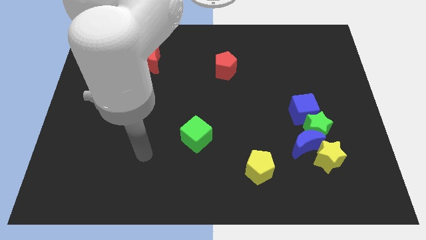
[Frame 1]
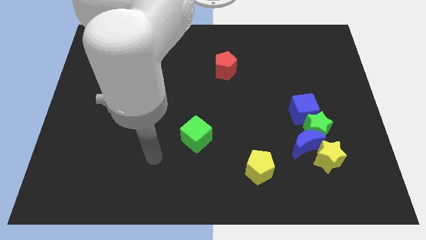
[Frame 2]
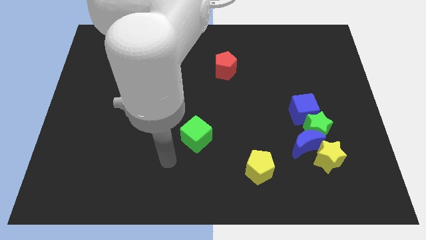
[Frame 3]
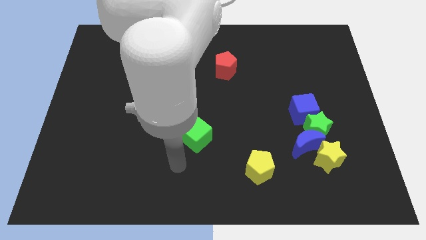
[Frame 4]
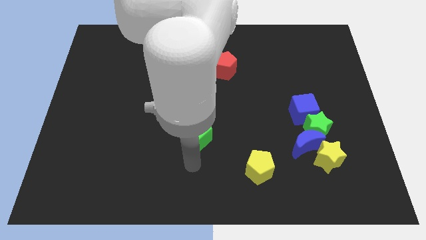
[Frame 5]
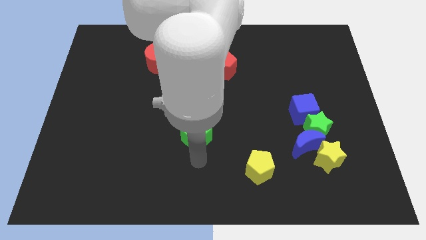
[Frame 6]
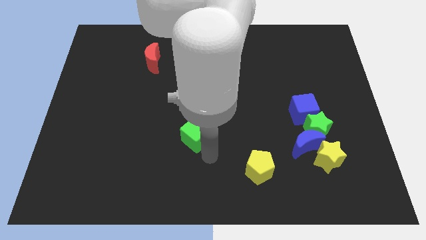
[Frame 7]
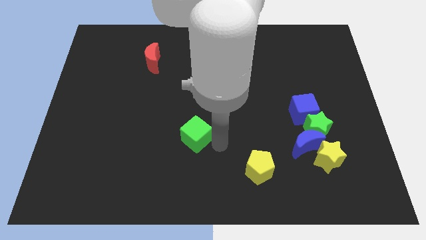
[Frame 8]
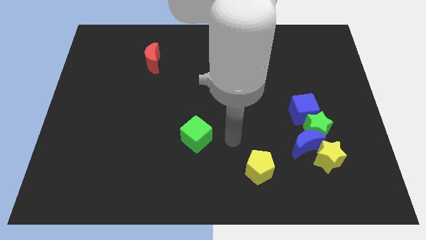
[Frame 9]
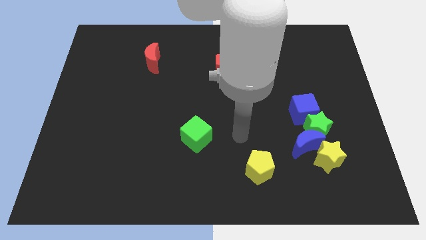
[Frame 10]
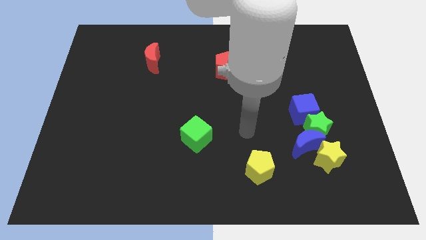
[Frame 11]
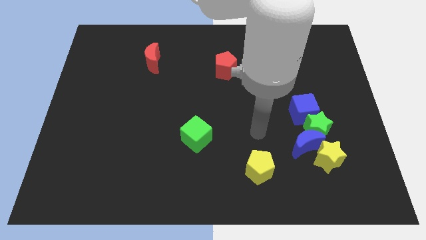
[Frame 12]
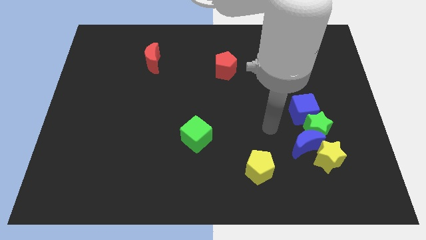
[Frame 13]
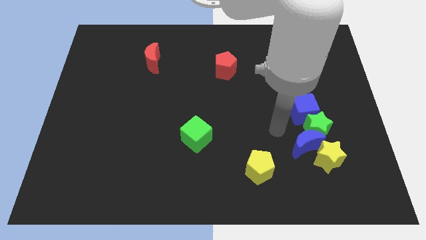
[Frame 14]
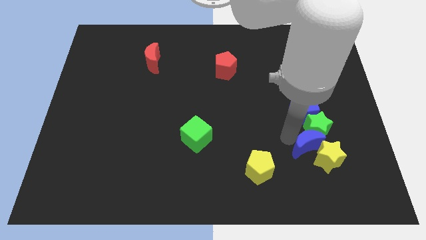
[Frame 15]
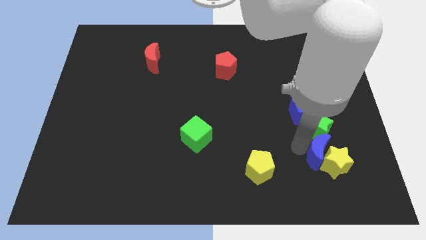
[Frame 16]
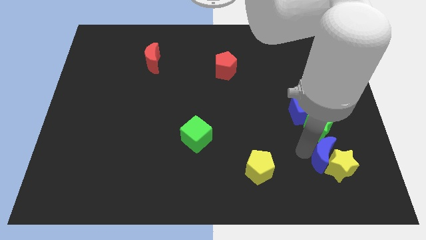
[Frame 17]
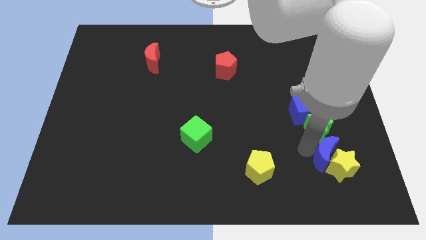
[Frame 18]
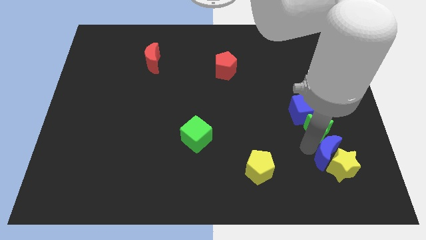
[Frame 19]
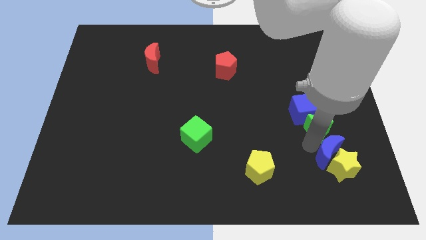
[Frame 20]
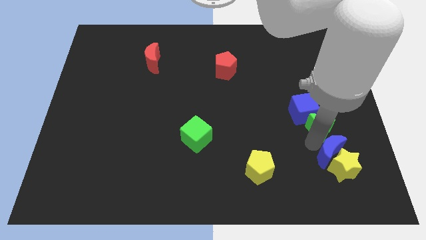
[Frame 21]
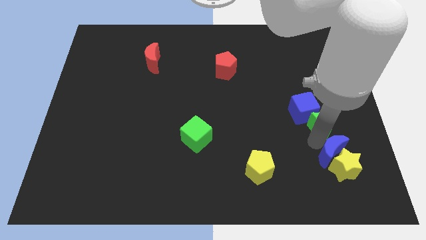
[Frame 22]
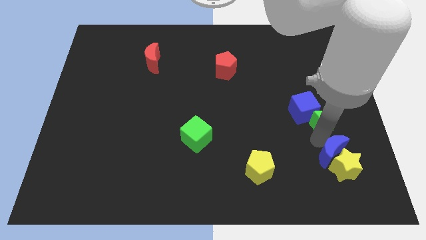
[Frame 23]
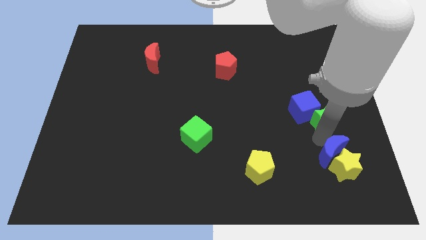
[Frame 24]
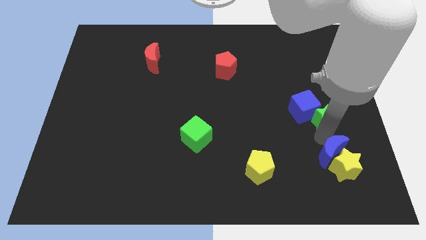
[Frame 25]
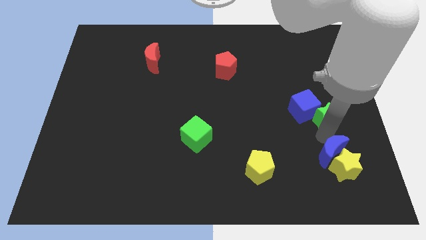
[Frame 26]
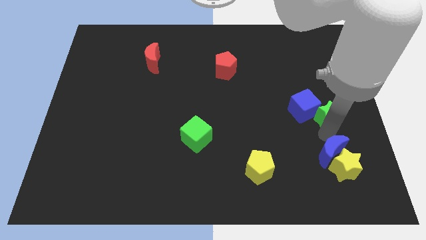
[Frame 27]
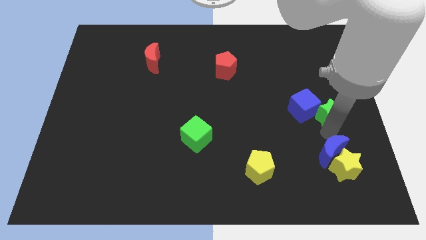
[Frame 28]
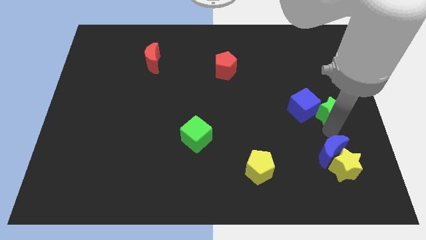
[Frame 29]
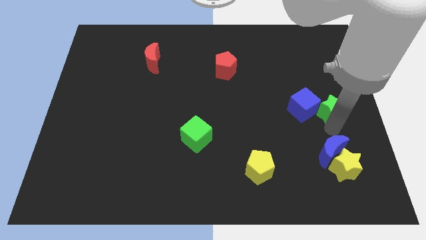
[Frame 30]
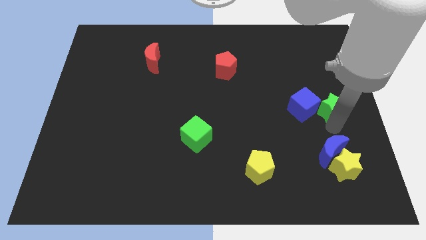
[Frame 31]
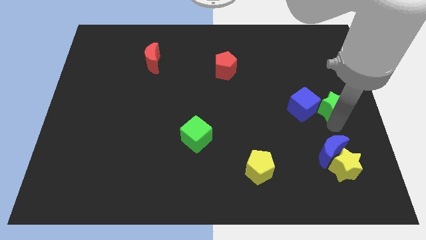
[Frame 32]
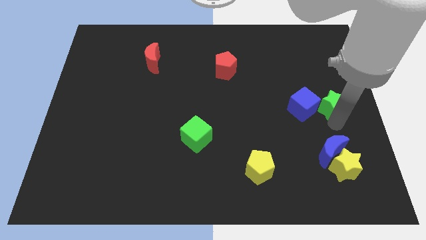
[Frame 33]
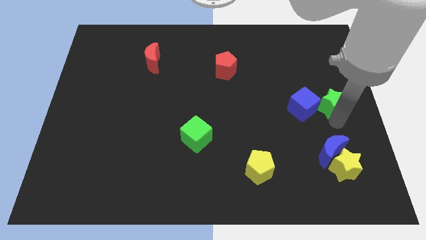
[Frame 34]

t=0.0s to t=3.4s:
separate the green star from the group

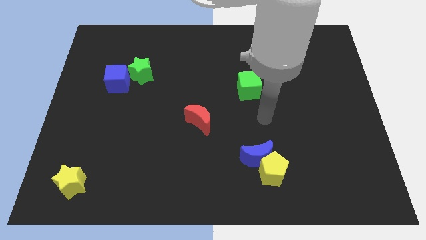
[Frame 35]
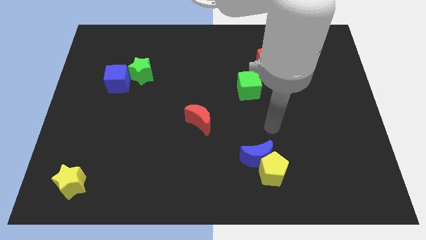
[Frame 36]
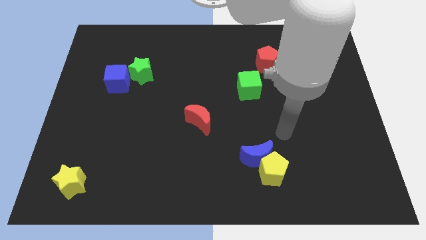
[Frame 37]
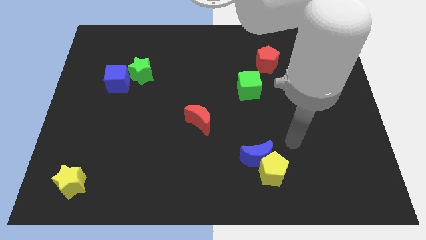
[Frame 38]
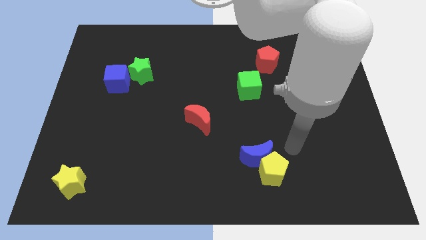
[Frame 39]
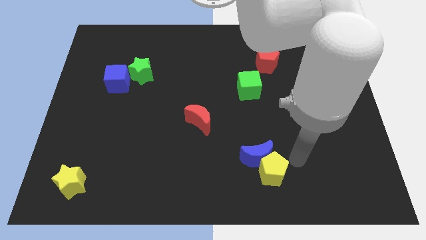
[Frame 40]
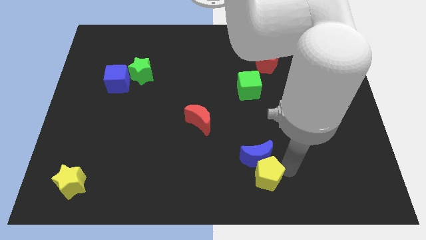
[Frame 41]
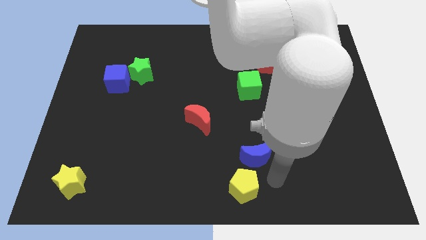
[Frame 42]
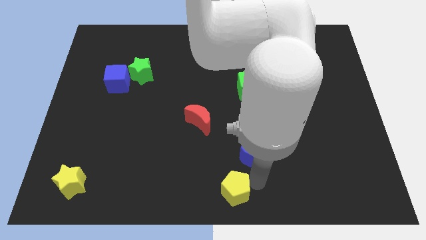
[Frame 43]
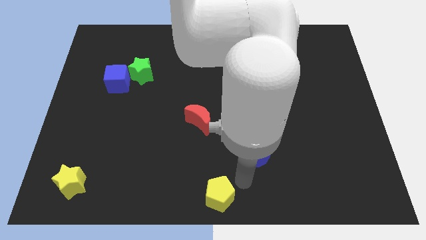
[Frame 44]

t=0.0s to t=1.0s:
pull the blue moon apart from the yellow pentagon

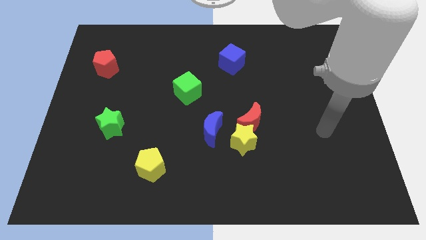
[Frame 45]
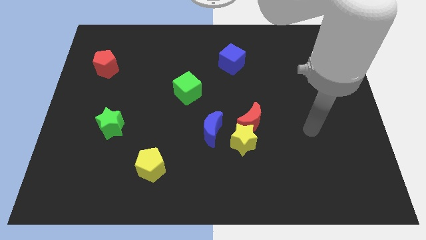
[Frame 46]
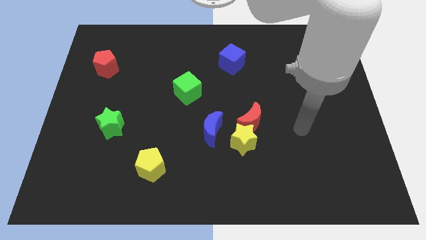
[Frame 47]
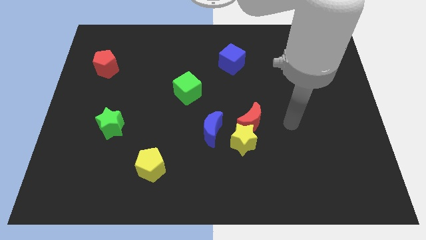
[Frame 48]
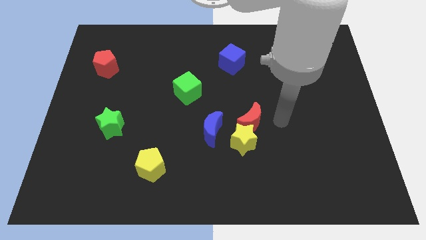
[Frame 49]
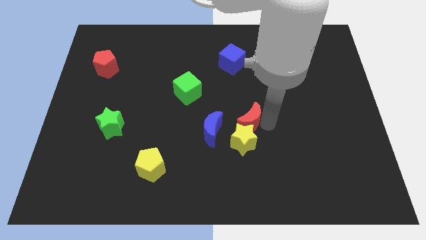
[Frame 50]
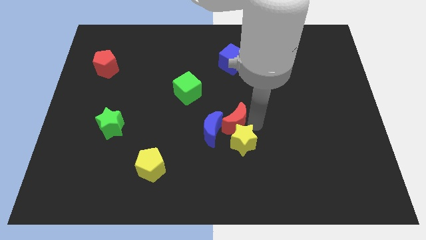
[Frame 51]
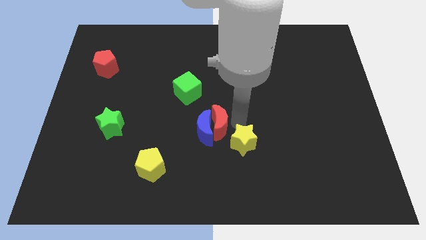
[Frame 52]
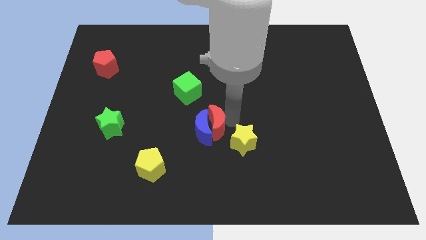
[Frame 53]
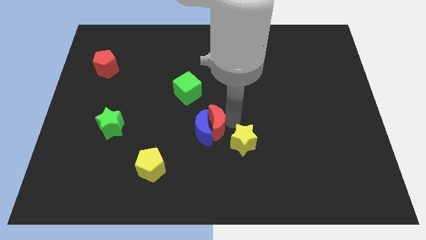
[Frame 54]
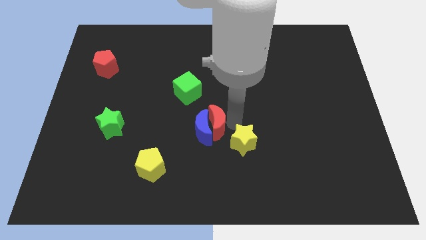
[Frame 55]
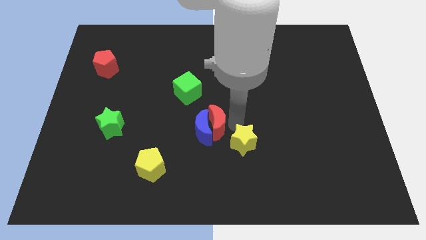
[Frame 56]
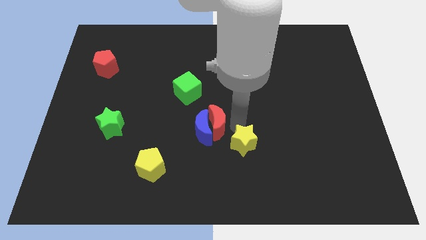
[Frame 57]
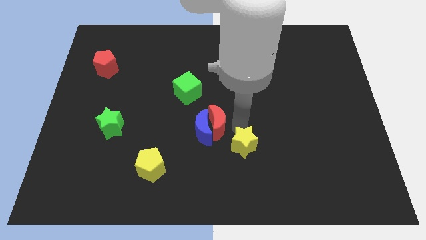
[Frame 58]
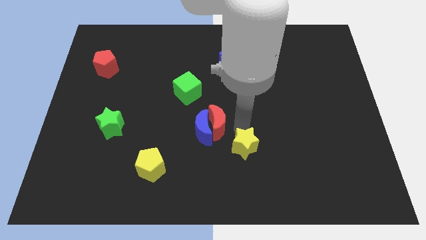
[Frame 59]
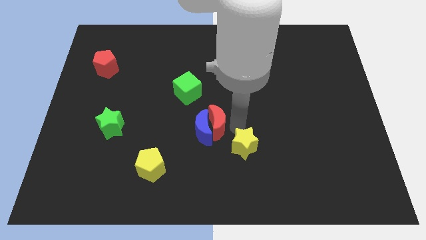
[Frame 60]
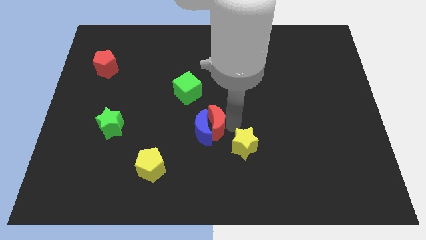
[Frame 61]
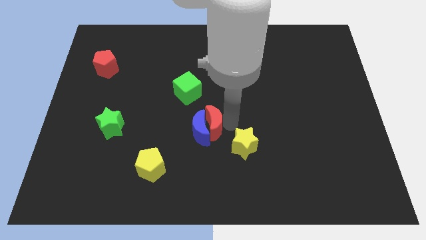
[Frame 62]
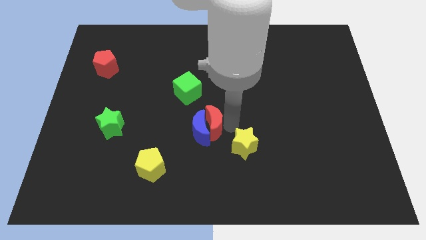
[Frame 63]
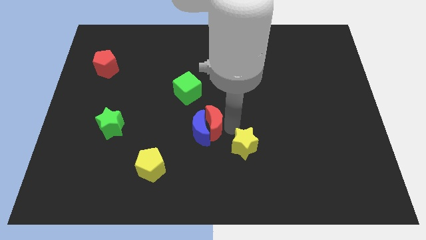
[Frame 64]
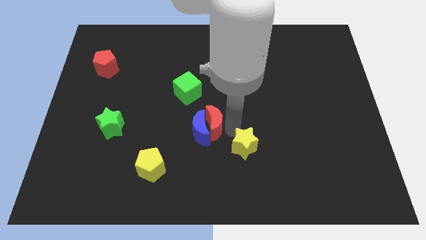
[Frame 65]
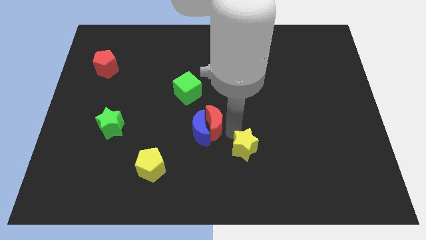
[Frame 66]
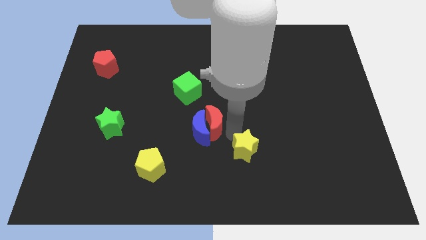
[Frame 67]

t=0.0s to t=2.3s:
separate the yellow star from the red moon and blue moon

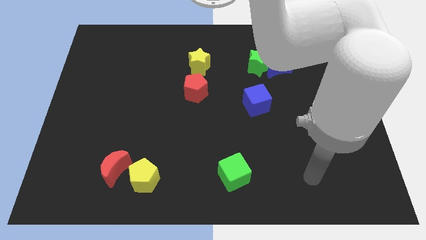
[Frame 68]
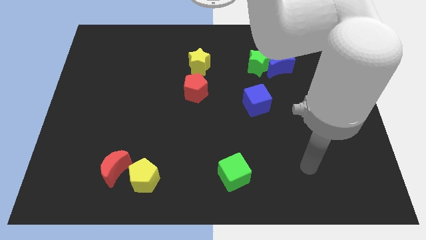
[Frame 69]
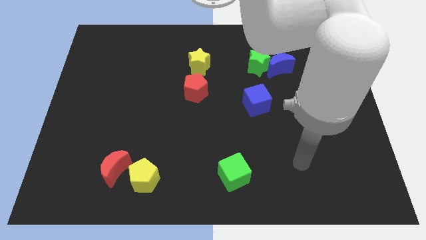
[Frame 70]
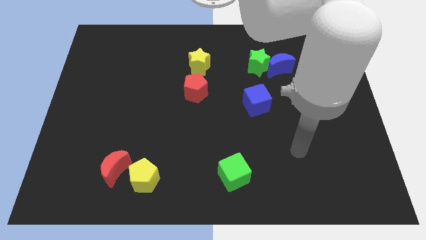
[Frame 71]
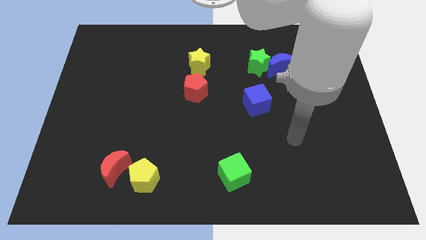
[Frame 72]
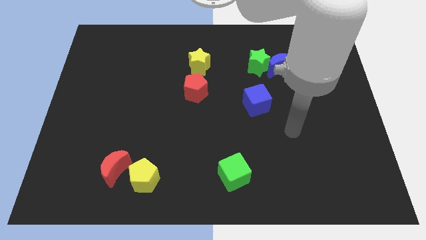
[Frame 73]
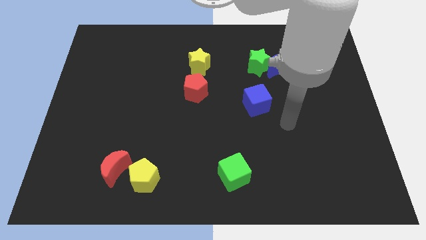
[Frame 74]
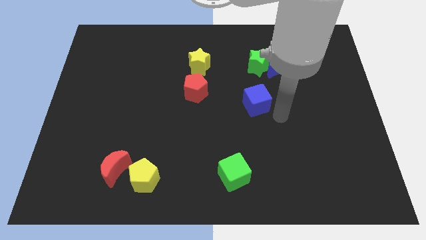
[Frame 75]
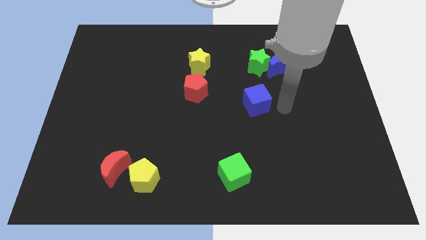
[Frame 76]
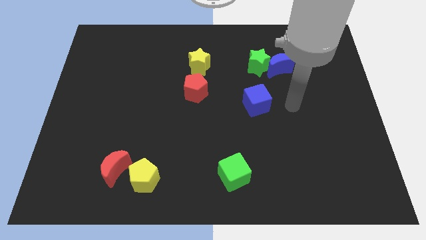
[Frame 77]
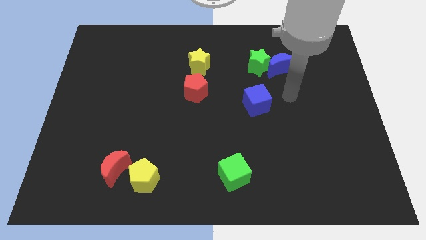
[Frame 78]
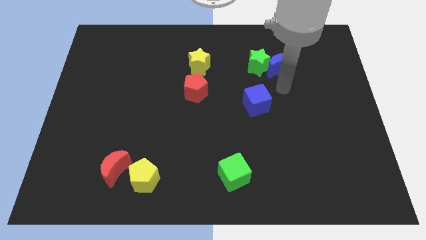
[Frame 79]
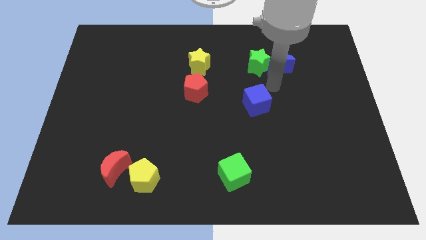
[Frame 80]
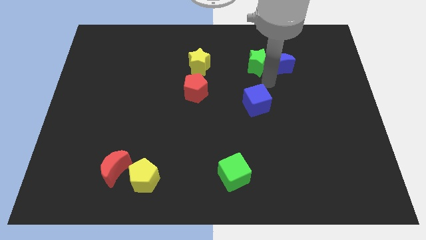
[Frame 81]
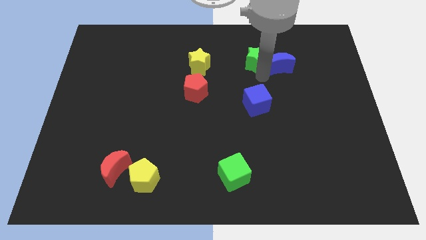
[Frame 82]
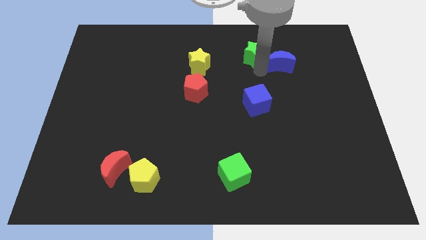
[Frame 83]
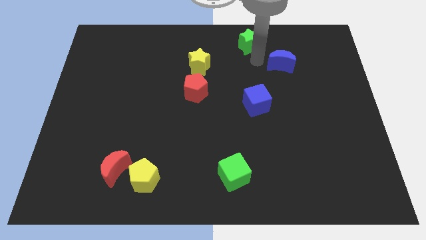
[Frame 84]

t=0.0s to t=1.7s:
separate the blue moon from the green star

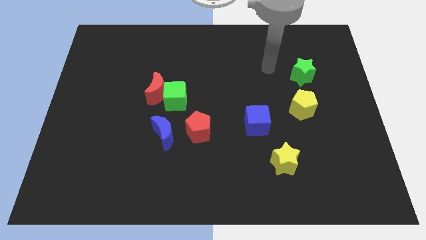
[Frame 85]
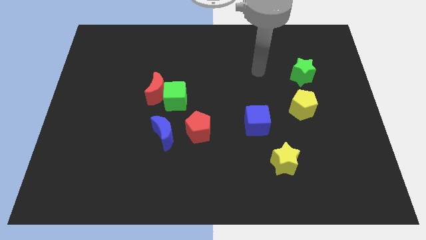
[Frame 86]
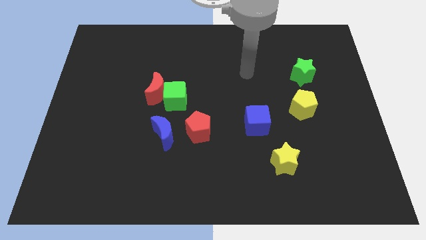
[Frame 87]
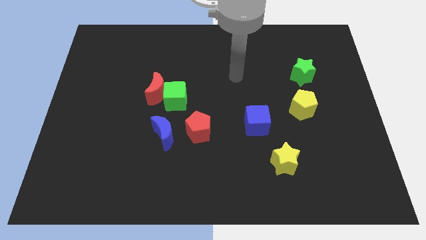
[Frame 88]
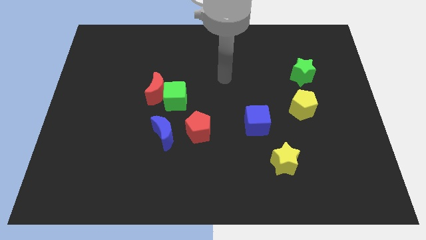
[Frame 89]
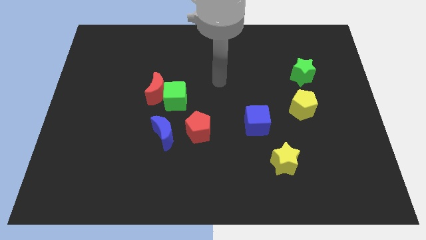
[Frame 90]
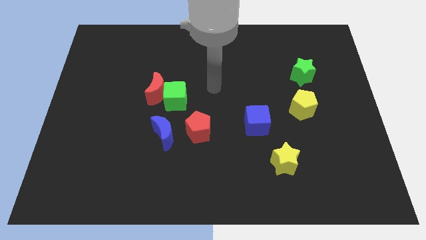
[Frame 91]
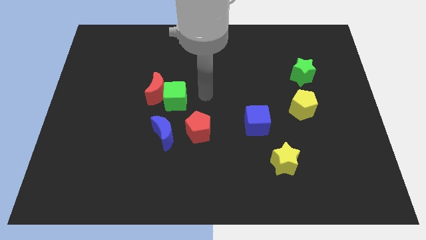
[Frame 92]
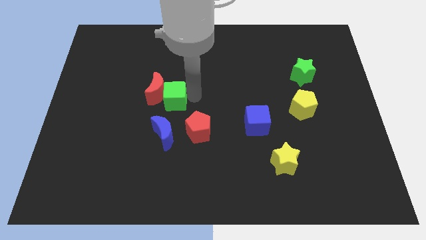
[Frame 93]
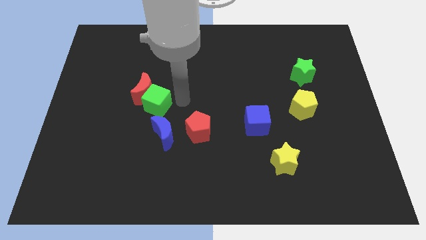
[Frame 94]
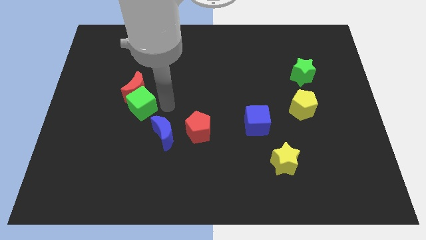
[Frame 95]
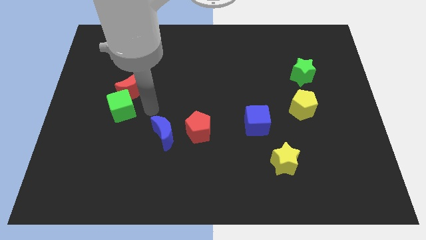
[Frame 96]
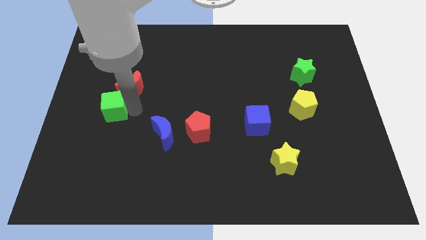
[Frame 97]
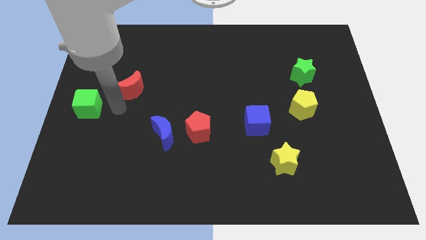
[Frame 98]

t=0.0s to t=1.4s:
move the red moon away from the green cube
